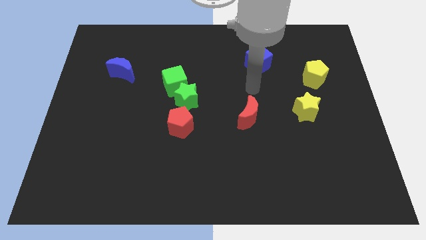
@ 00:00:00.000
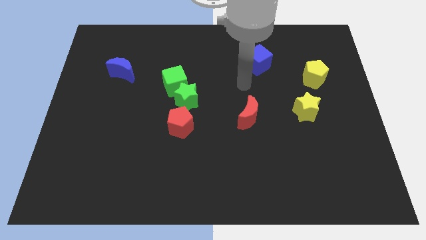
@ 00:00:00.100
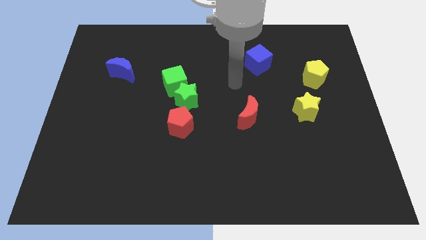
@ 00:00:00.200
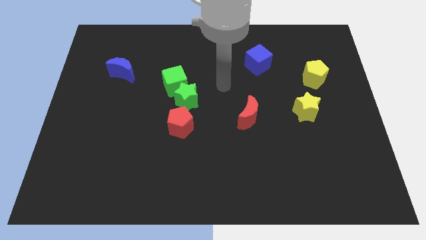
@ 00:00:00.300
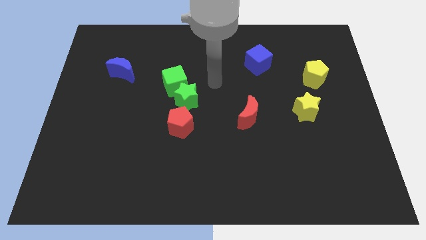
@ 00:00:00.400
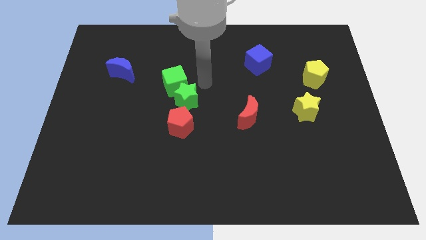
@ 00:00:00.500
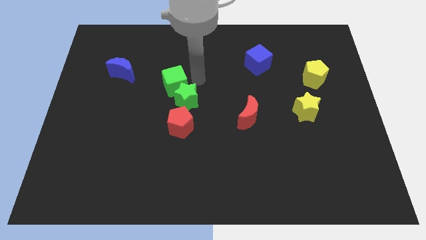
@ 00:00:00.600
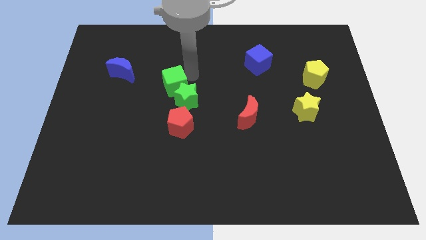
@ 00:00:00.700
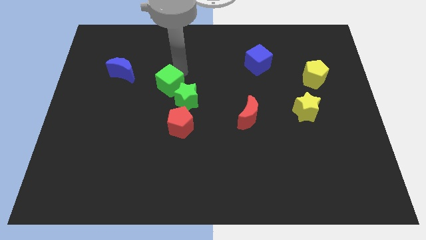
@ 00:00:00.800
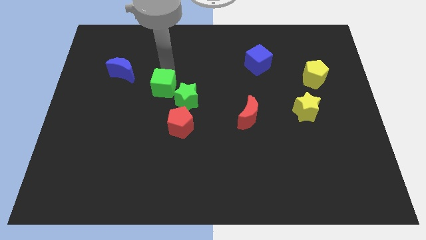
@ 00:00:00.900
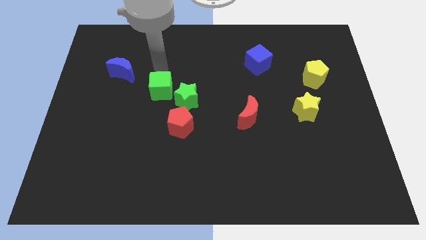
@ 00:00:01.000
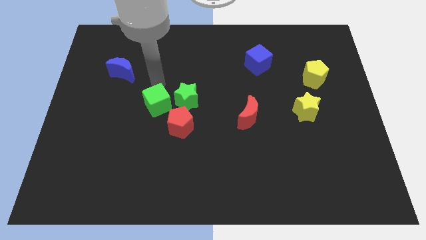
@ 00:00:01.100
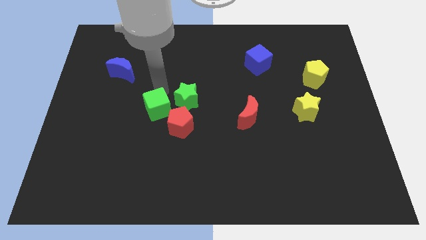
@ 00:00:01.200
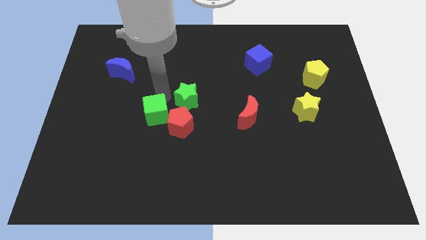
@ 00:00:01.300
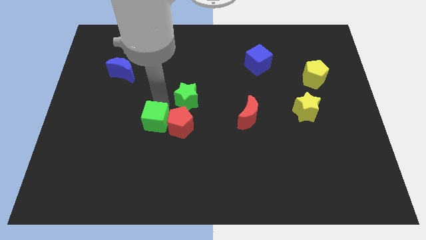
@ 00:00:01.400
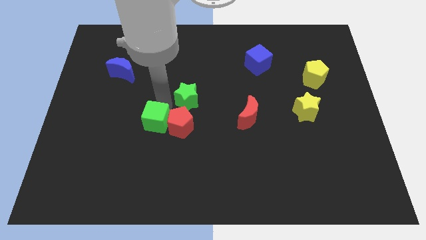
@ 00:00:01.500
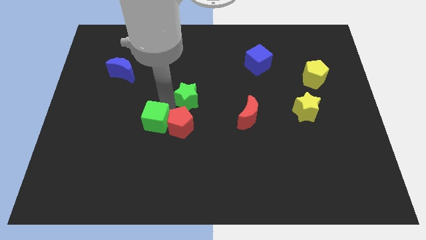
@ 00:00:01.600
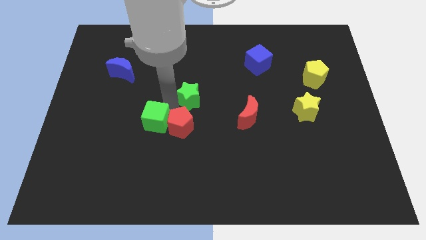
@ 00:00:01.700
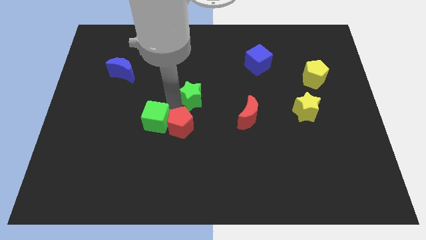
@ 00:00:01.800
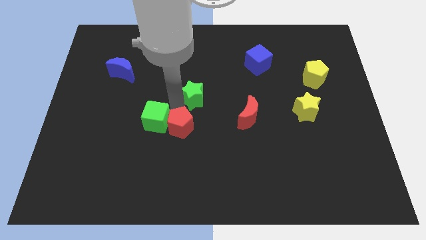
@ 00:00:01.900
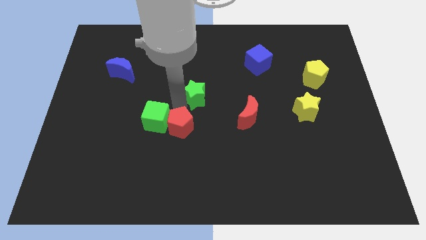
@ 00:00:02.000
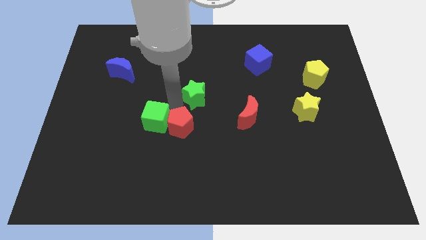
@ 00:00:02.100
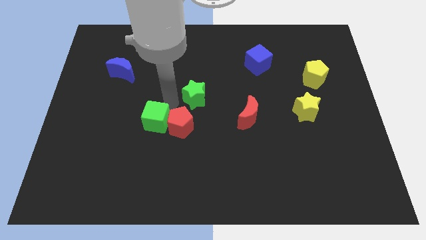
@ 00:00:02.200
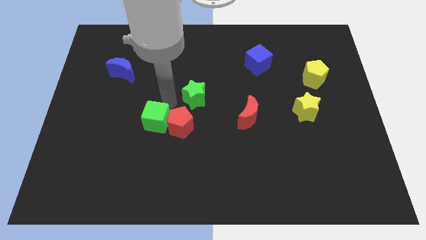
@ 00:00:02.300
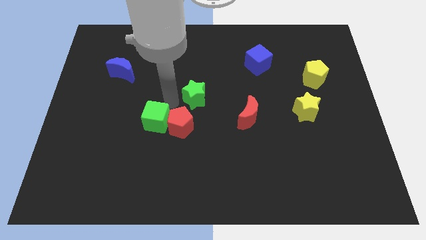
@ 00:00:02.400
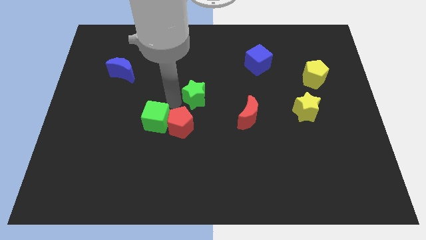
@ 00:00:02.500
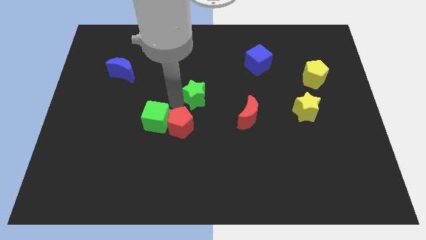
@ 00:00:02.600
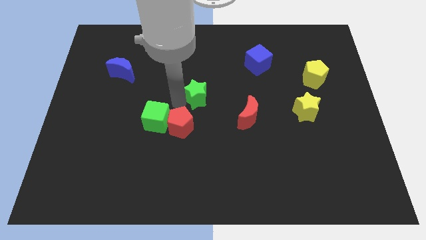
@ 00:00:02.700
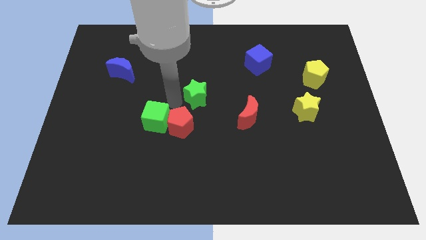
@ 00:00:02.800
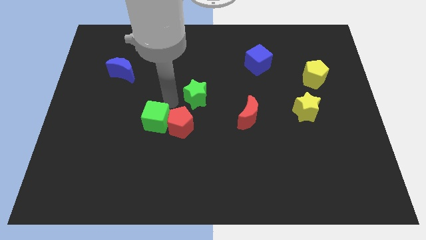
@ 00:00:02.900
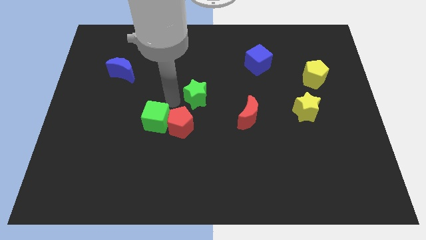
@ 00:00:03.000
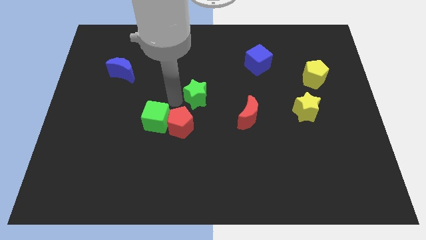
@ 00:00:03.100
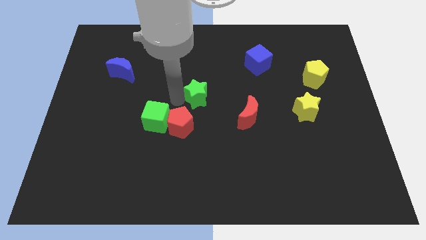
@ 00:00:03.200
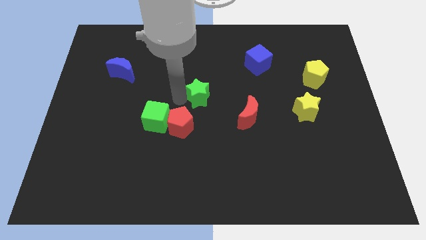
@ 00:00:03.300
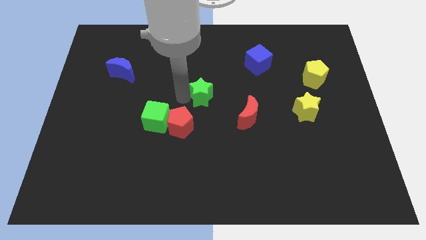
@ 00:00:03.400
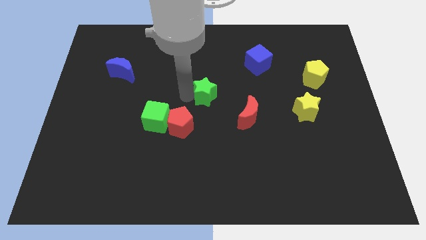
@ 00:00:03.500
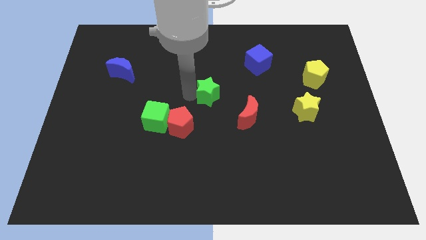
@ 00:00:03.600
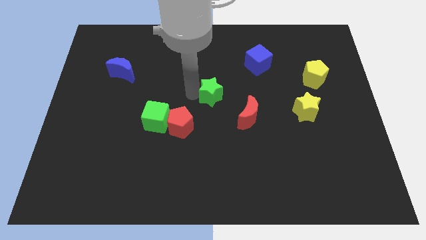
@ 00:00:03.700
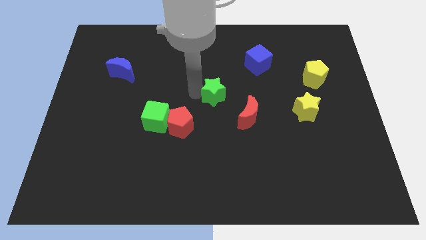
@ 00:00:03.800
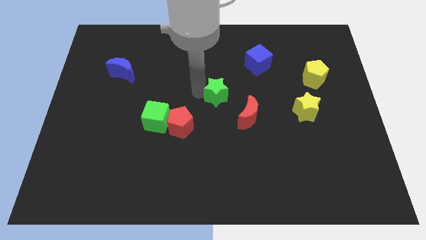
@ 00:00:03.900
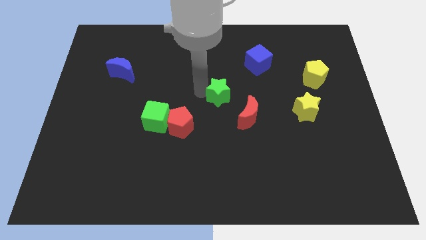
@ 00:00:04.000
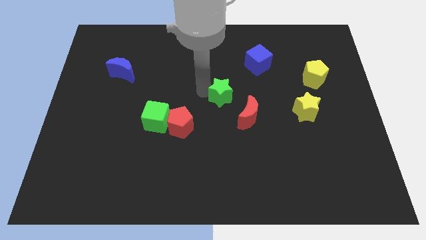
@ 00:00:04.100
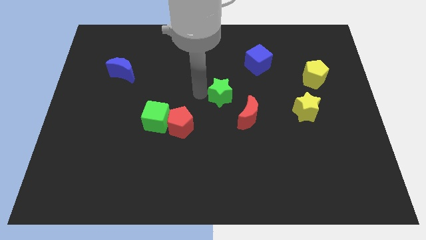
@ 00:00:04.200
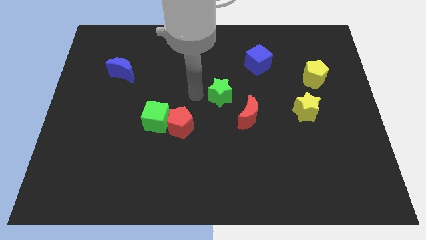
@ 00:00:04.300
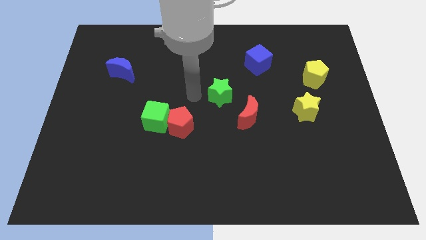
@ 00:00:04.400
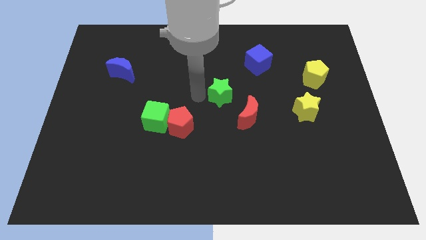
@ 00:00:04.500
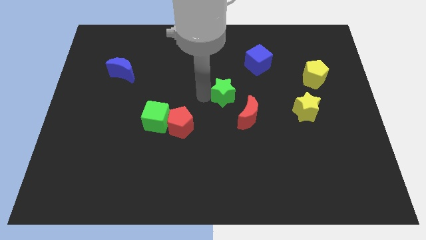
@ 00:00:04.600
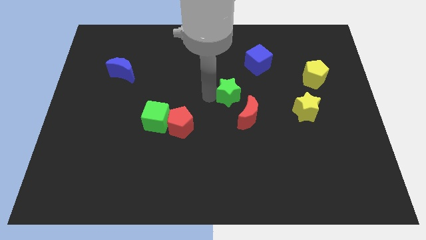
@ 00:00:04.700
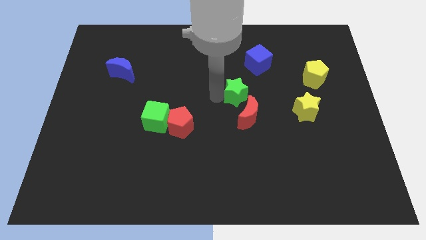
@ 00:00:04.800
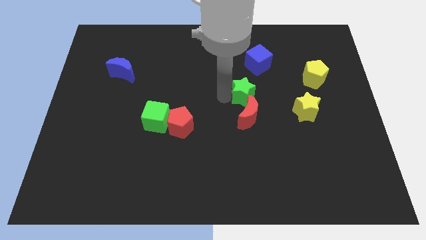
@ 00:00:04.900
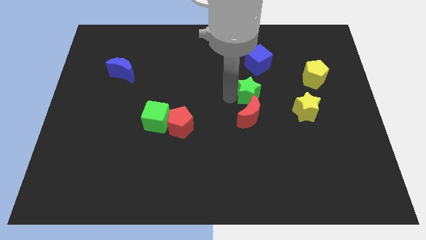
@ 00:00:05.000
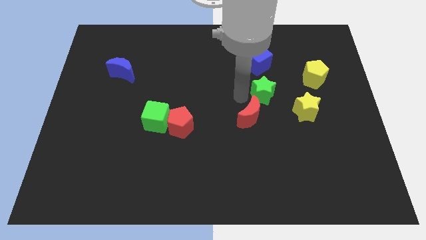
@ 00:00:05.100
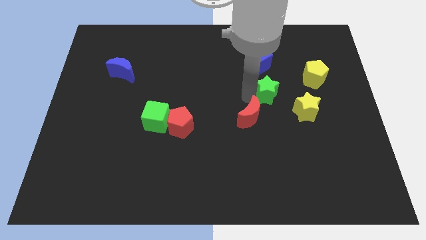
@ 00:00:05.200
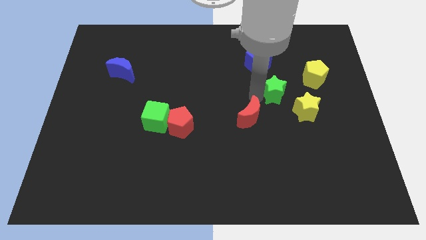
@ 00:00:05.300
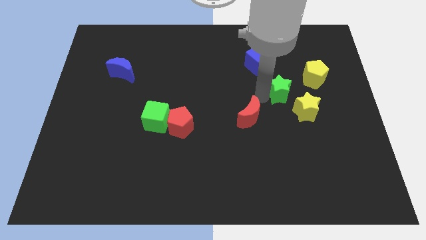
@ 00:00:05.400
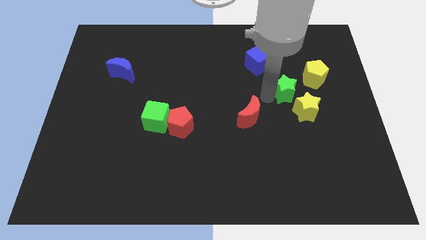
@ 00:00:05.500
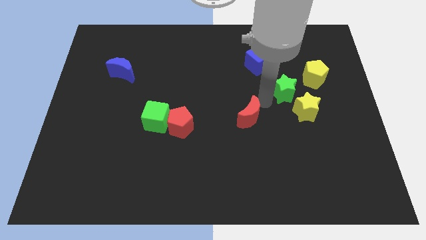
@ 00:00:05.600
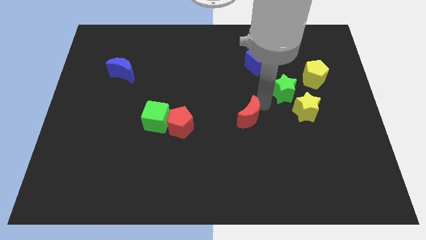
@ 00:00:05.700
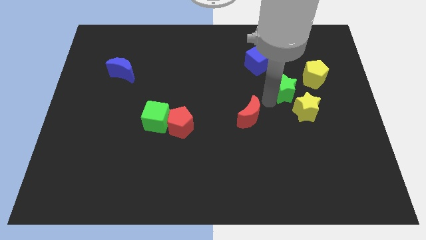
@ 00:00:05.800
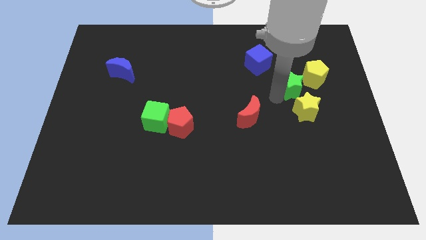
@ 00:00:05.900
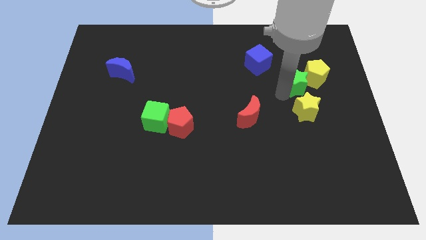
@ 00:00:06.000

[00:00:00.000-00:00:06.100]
put the green star close to the yellow pentagon

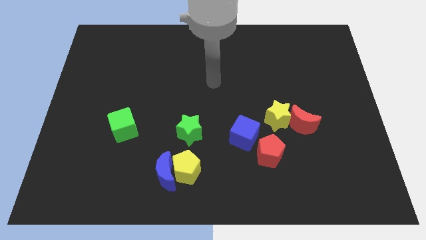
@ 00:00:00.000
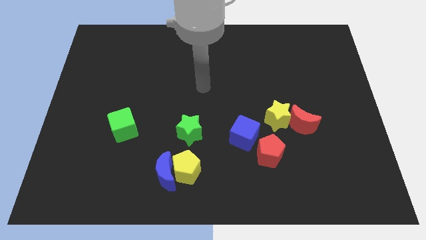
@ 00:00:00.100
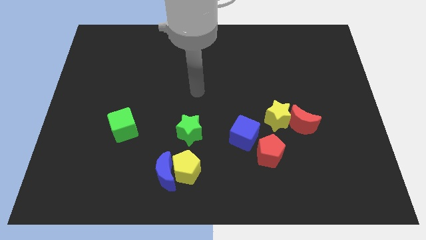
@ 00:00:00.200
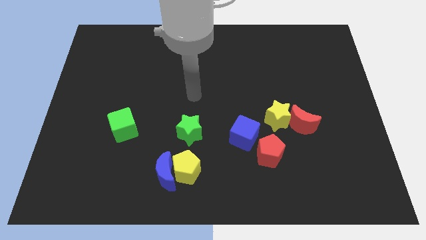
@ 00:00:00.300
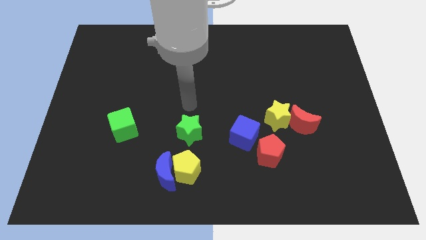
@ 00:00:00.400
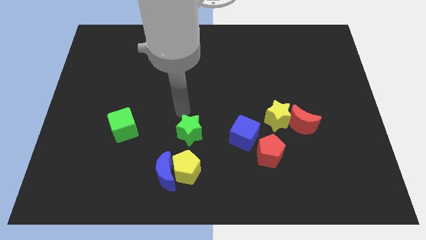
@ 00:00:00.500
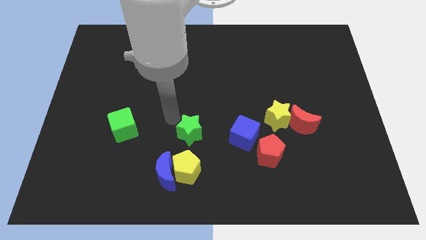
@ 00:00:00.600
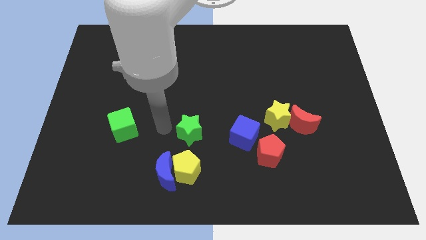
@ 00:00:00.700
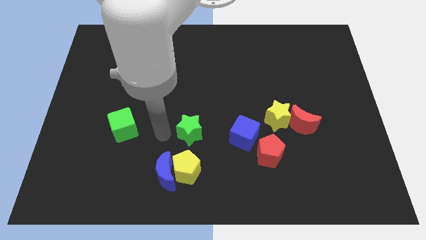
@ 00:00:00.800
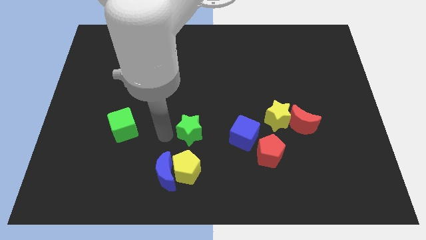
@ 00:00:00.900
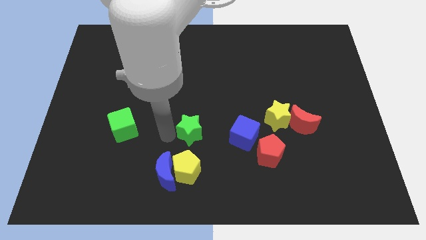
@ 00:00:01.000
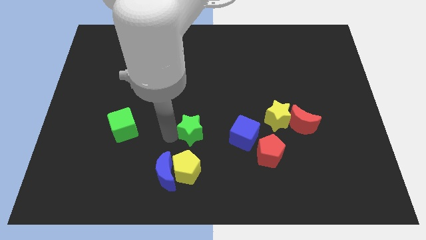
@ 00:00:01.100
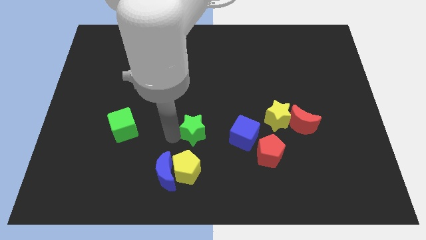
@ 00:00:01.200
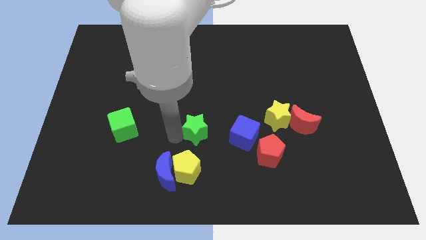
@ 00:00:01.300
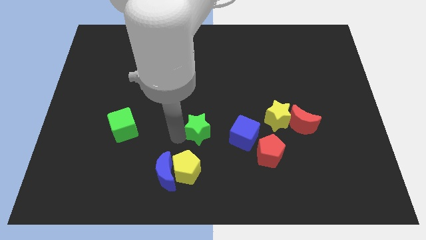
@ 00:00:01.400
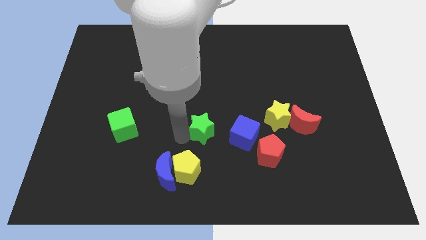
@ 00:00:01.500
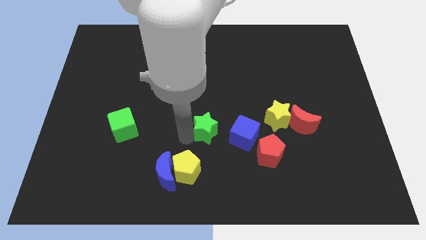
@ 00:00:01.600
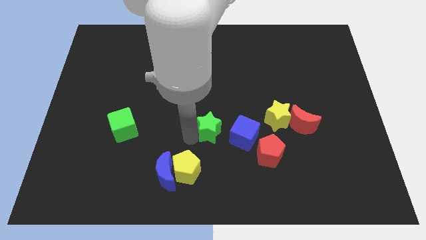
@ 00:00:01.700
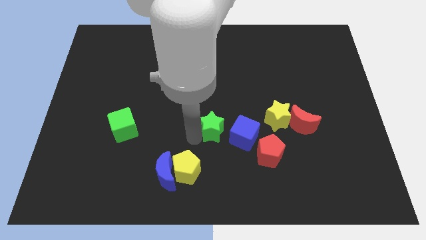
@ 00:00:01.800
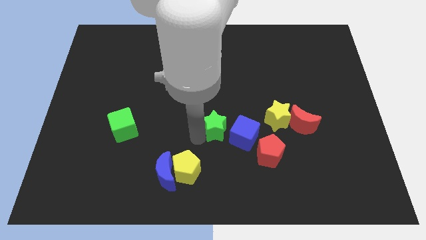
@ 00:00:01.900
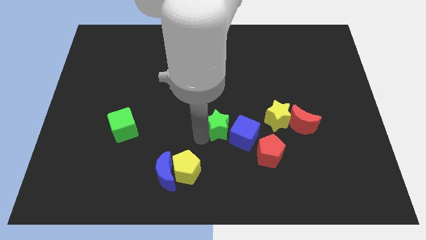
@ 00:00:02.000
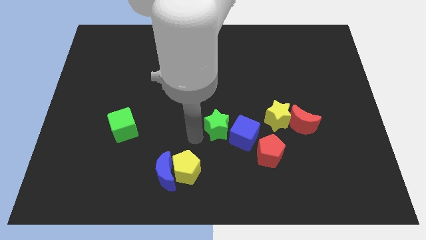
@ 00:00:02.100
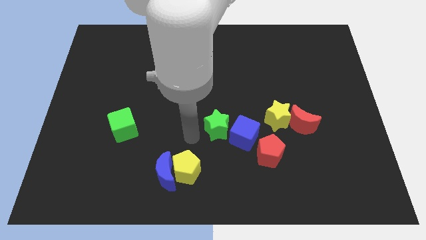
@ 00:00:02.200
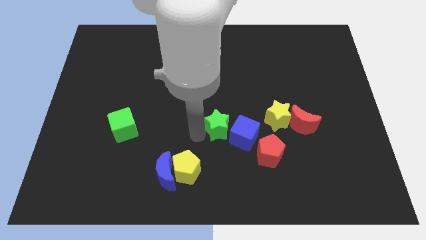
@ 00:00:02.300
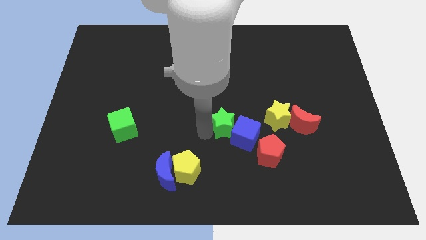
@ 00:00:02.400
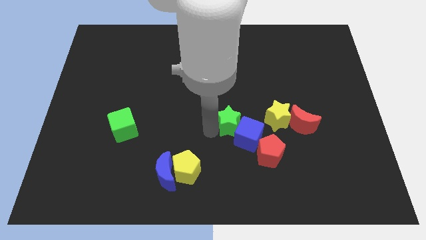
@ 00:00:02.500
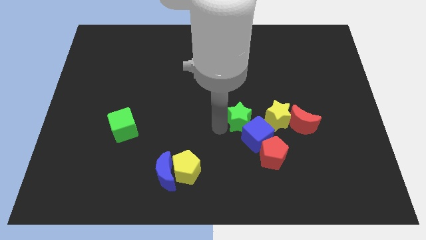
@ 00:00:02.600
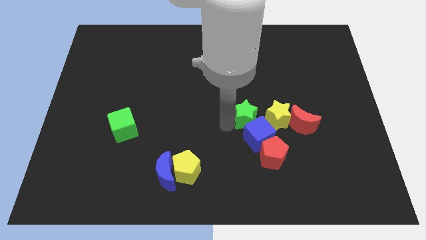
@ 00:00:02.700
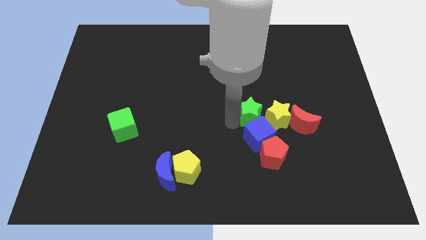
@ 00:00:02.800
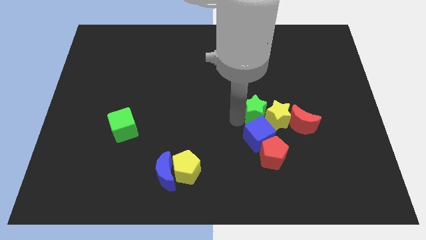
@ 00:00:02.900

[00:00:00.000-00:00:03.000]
push the green star next to the yellow star
